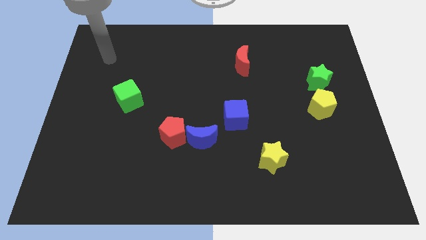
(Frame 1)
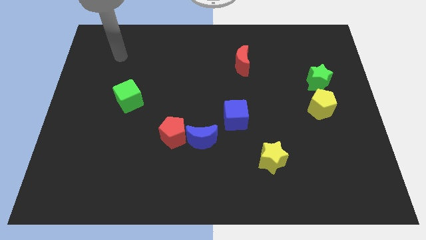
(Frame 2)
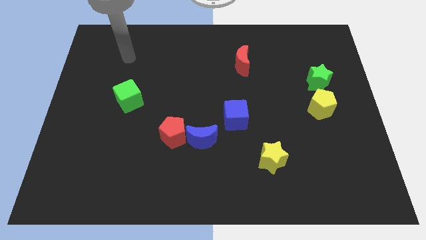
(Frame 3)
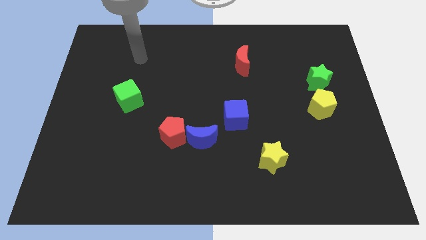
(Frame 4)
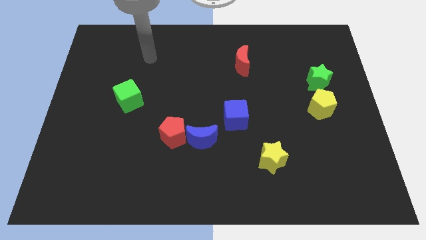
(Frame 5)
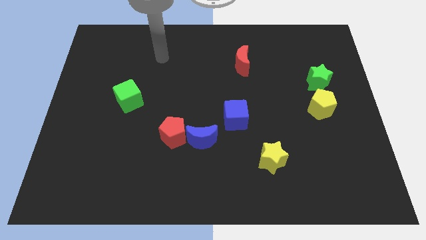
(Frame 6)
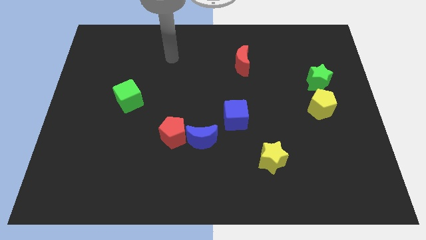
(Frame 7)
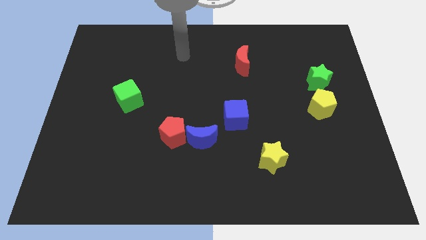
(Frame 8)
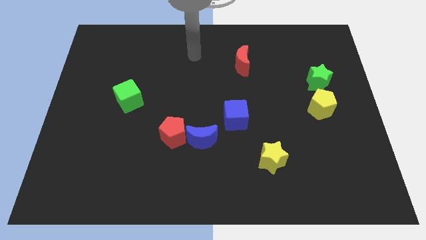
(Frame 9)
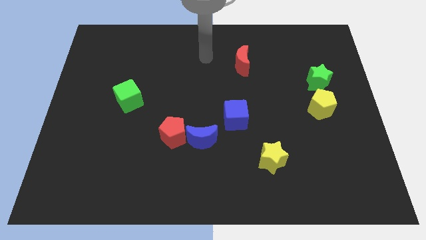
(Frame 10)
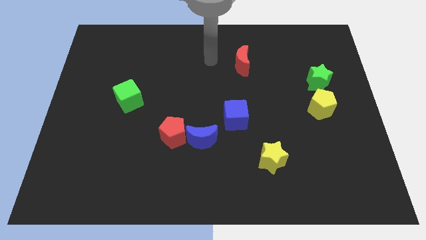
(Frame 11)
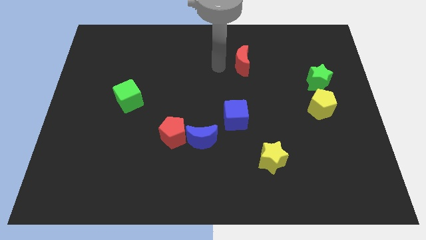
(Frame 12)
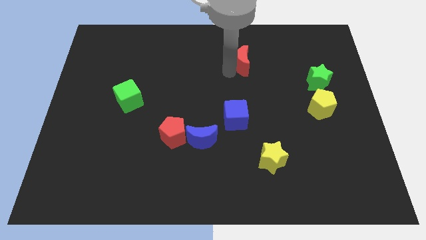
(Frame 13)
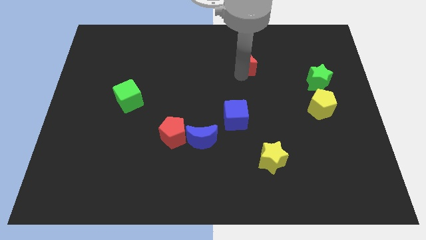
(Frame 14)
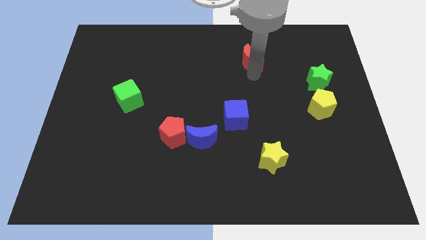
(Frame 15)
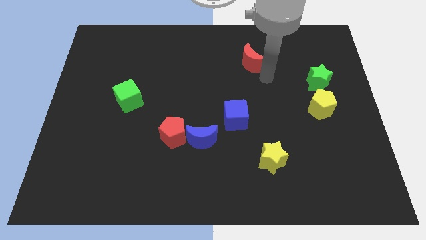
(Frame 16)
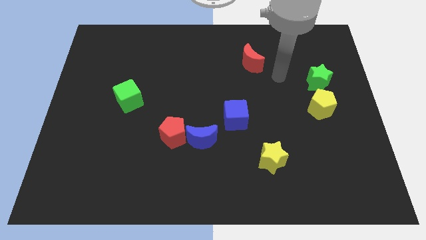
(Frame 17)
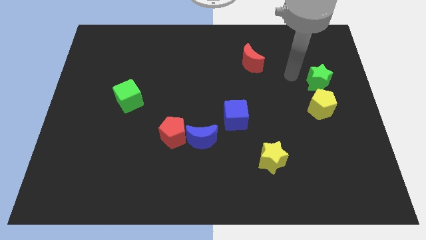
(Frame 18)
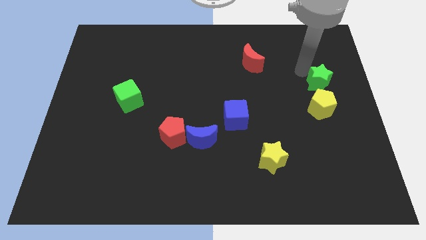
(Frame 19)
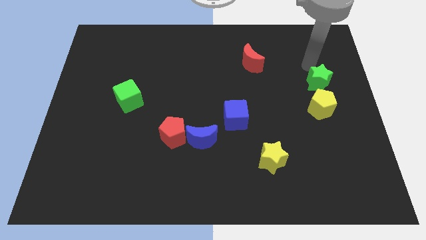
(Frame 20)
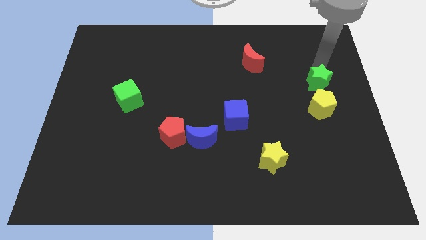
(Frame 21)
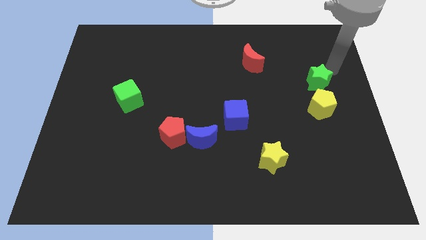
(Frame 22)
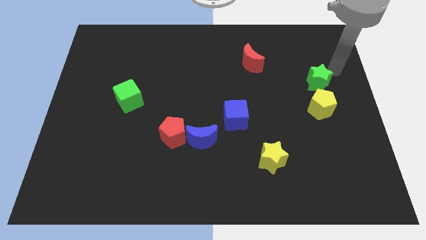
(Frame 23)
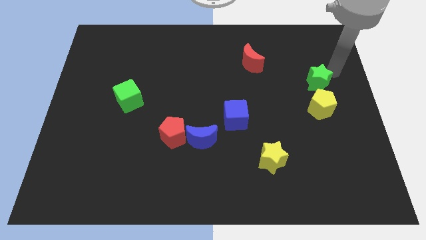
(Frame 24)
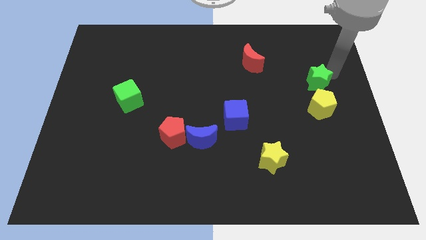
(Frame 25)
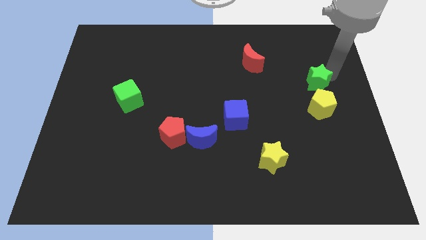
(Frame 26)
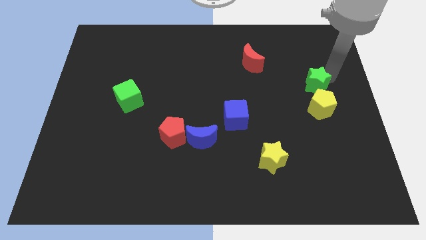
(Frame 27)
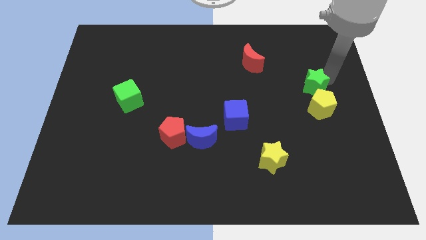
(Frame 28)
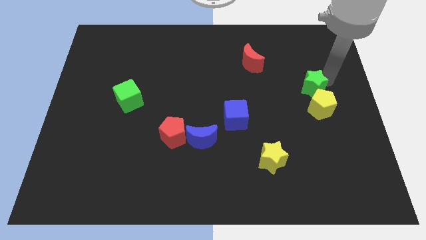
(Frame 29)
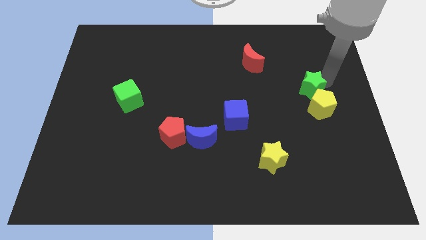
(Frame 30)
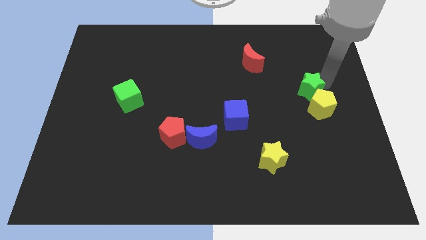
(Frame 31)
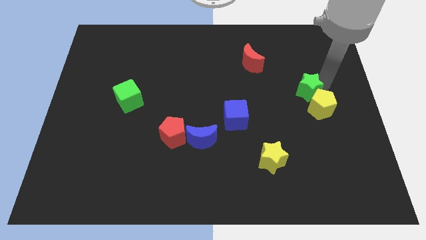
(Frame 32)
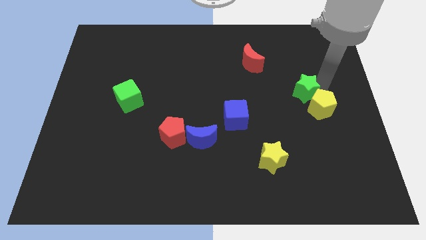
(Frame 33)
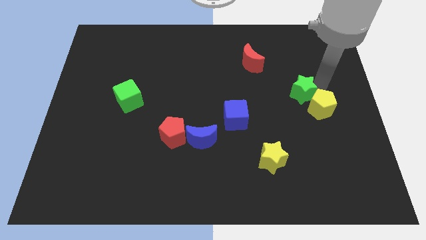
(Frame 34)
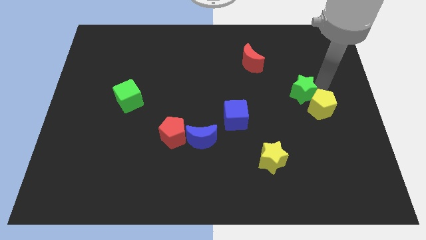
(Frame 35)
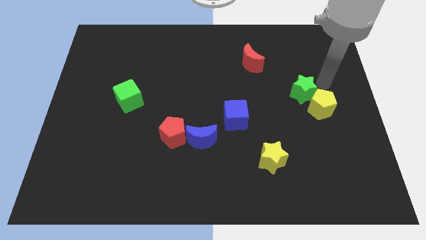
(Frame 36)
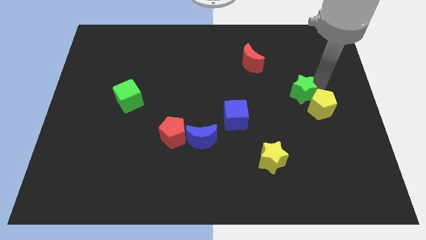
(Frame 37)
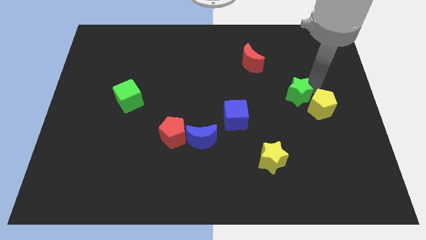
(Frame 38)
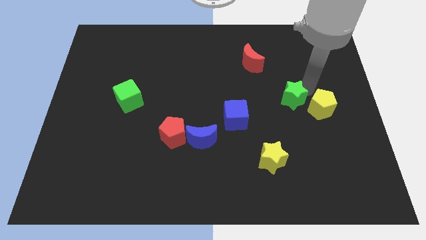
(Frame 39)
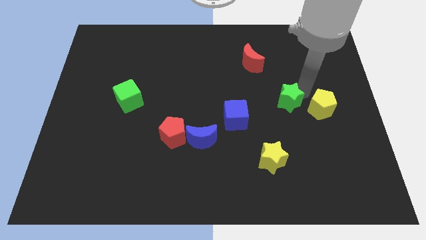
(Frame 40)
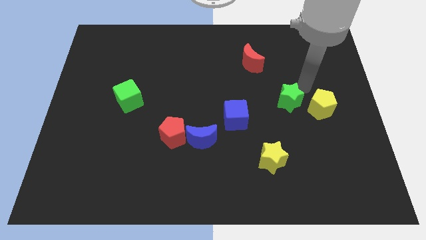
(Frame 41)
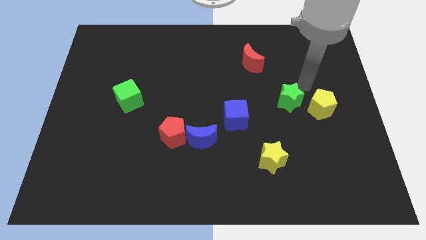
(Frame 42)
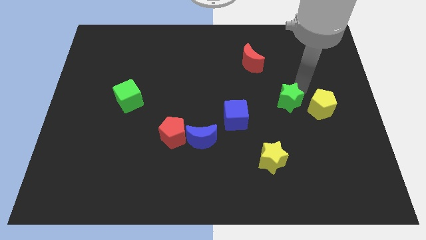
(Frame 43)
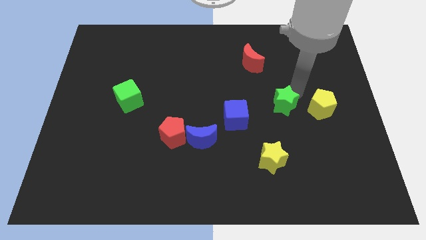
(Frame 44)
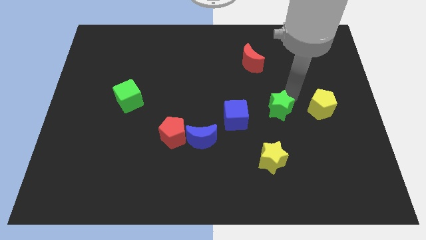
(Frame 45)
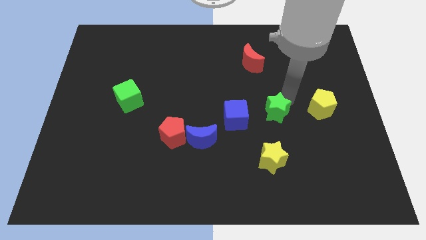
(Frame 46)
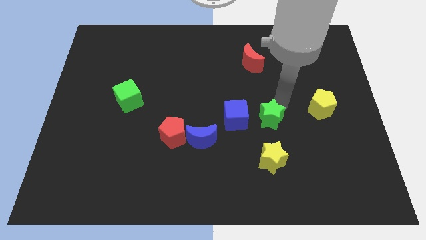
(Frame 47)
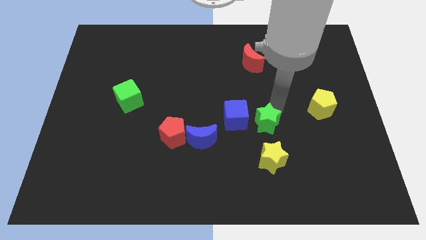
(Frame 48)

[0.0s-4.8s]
put the green star diagonally down and to the right of the blue cube

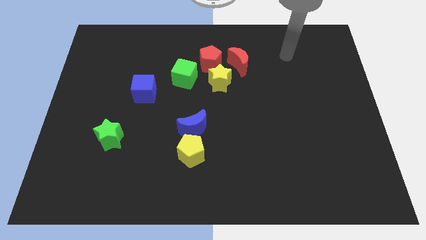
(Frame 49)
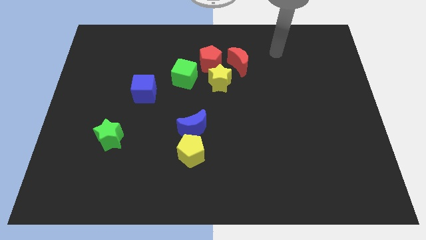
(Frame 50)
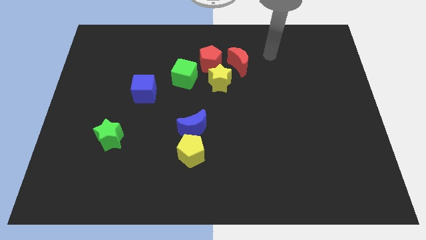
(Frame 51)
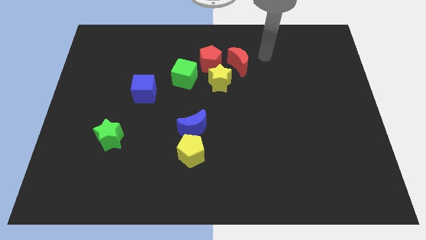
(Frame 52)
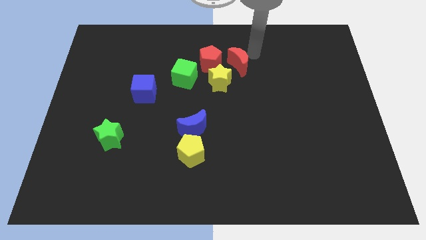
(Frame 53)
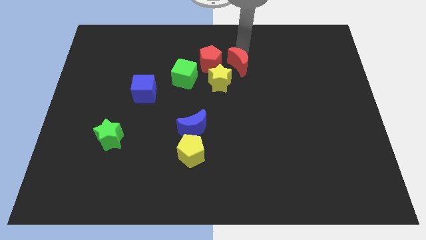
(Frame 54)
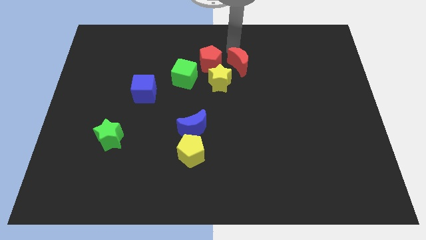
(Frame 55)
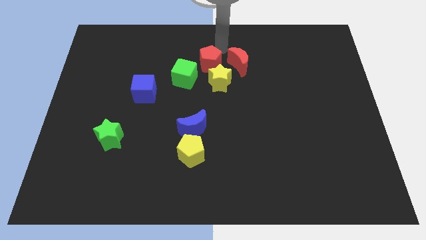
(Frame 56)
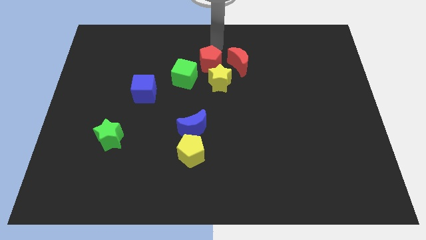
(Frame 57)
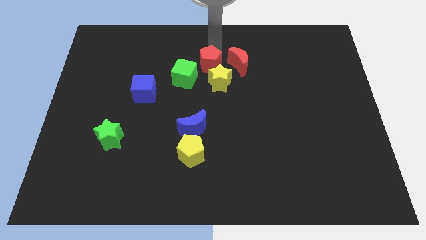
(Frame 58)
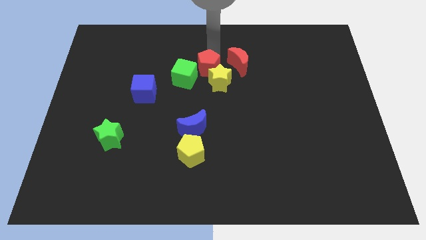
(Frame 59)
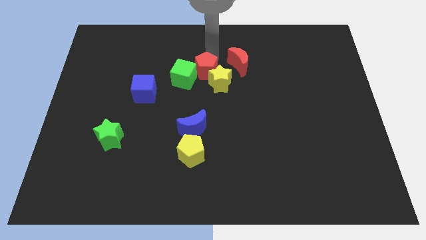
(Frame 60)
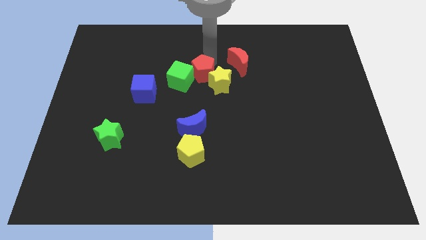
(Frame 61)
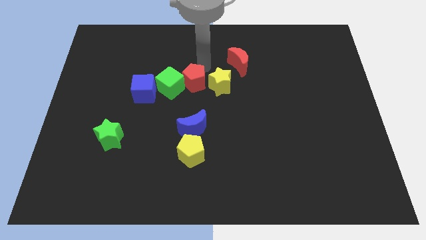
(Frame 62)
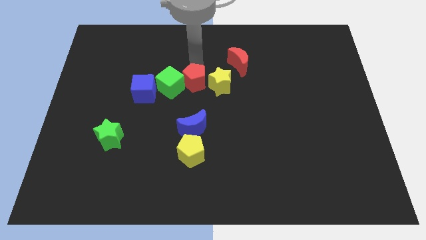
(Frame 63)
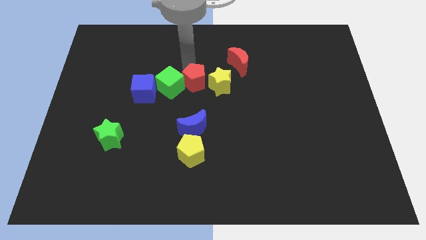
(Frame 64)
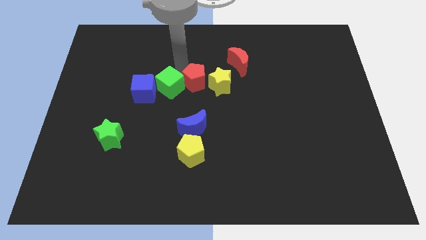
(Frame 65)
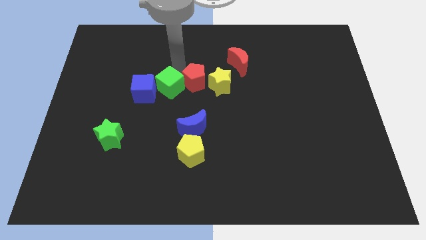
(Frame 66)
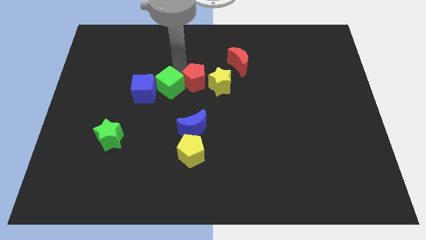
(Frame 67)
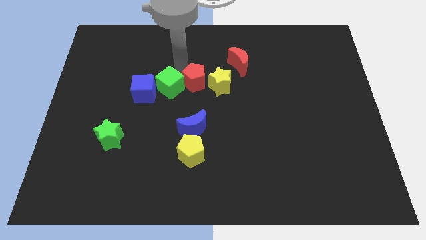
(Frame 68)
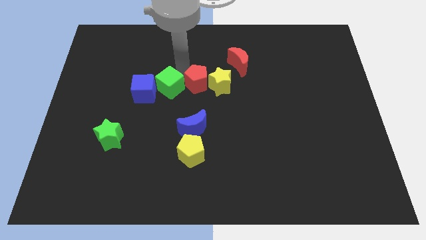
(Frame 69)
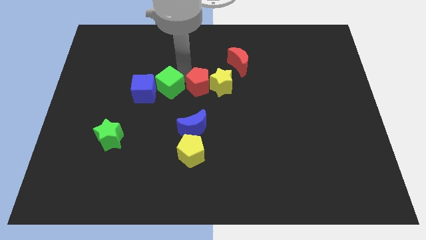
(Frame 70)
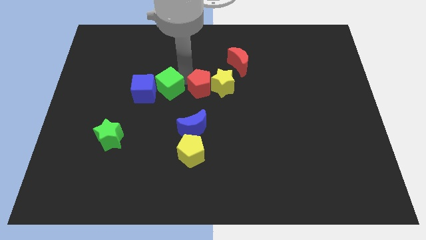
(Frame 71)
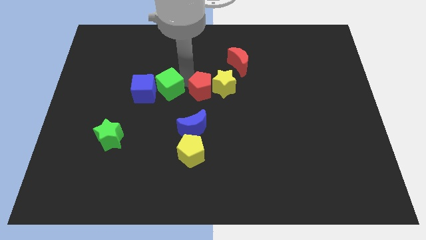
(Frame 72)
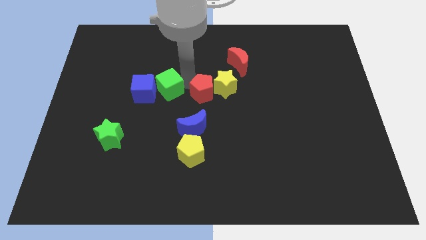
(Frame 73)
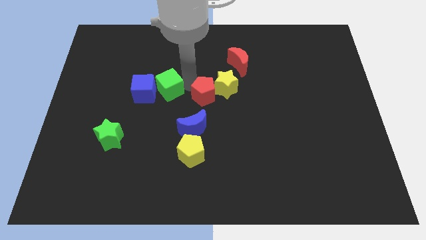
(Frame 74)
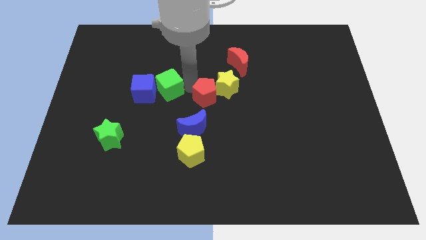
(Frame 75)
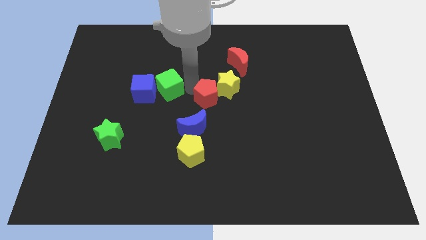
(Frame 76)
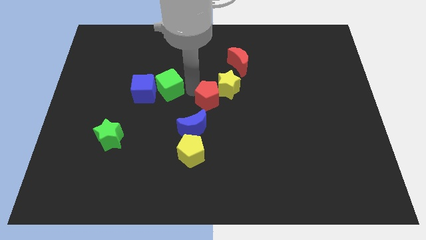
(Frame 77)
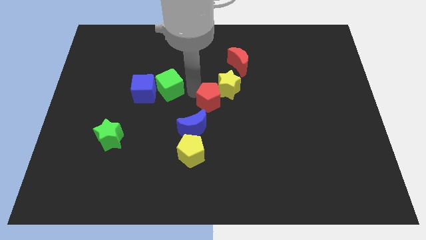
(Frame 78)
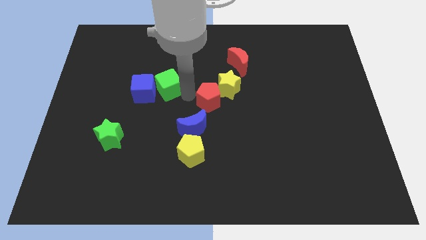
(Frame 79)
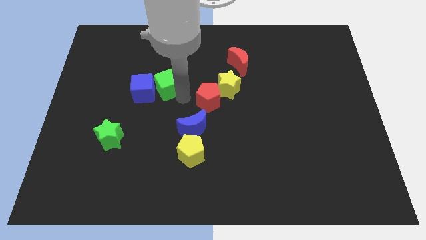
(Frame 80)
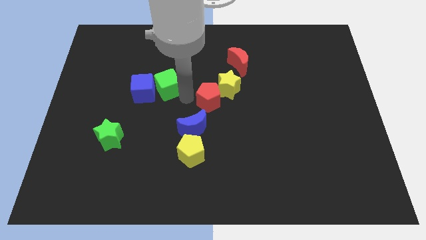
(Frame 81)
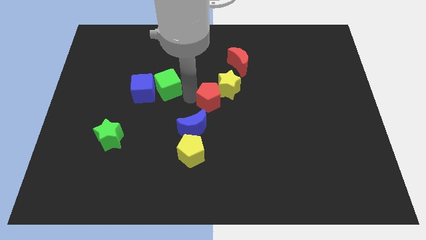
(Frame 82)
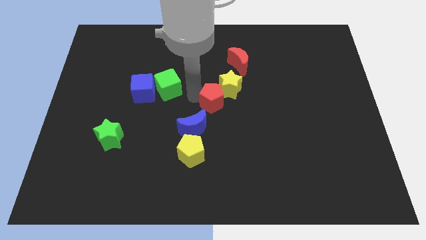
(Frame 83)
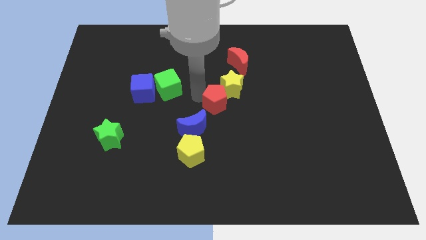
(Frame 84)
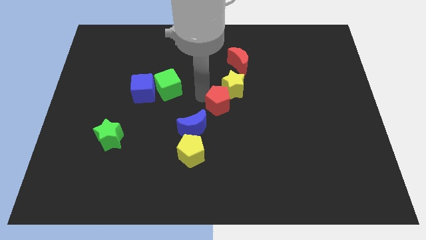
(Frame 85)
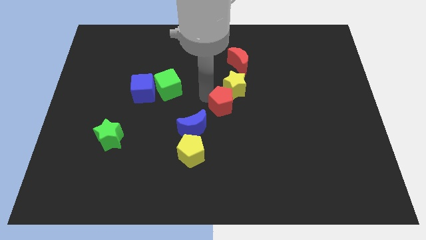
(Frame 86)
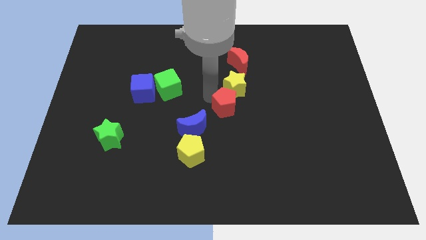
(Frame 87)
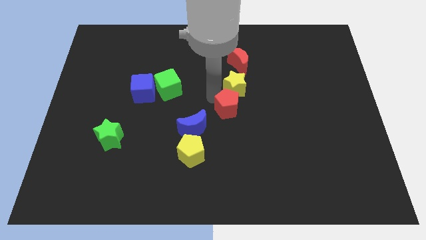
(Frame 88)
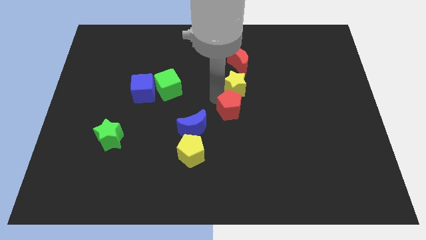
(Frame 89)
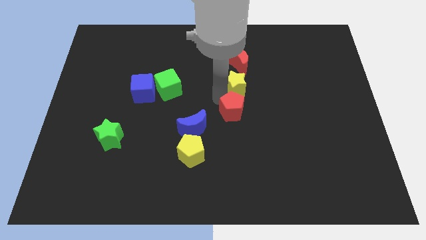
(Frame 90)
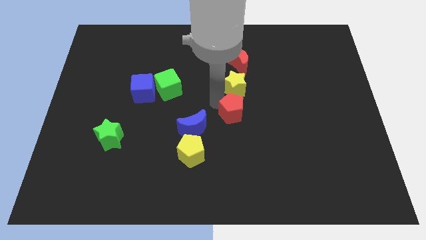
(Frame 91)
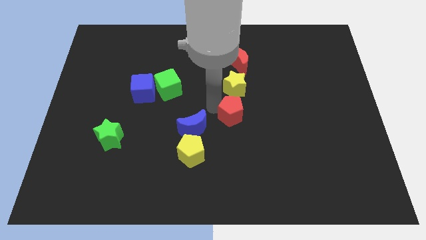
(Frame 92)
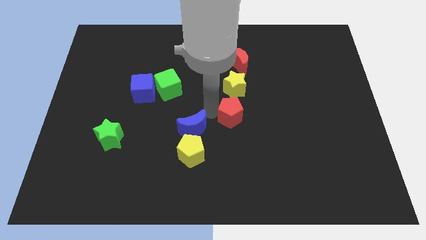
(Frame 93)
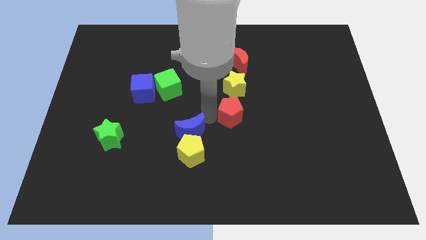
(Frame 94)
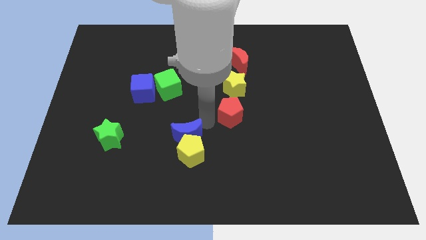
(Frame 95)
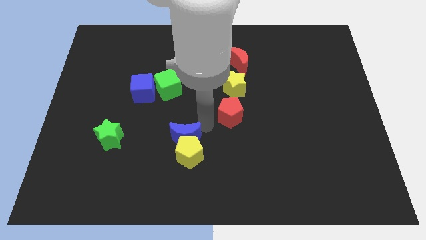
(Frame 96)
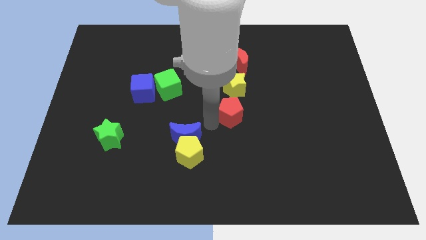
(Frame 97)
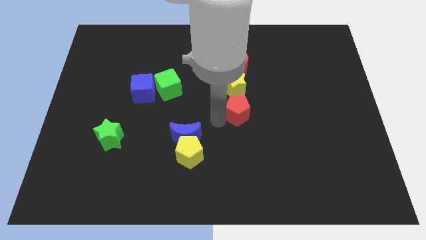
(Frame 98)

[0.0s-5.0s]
slide the red pentagon diagonally down and to the right of the yellow star
